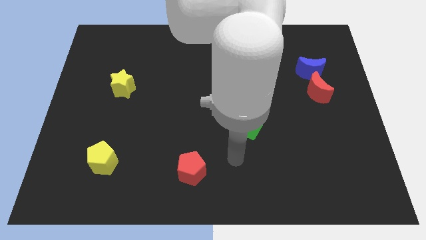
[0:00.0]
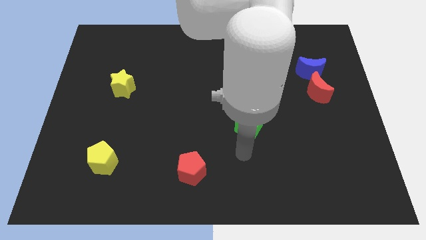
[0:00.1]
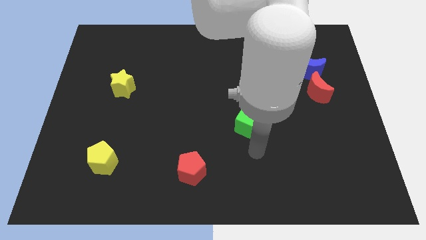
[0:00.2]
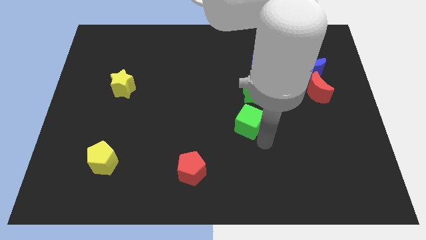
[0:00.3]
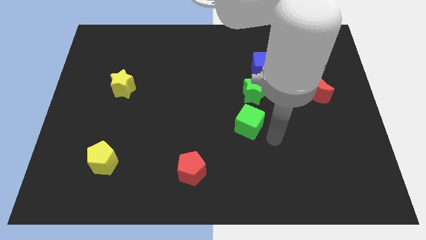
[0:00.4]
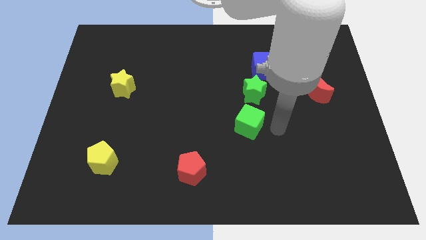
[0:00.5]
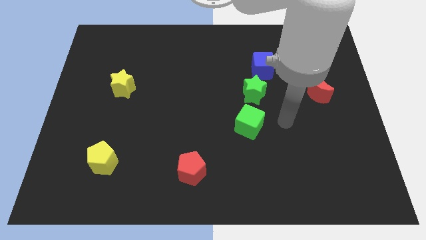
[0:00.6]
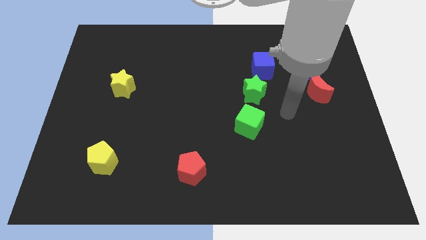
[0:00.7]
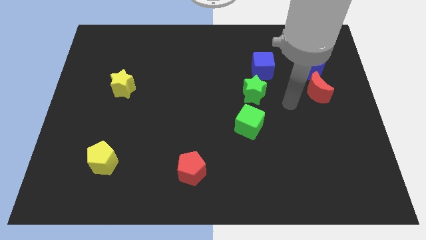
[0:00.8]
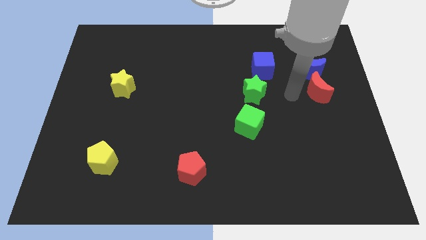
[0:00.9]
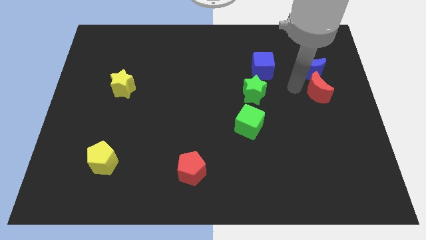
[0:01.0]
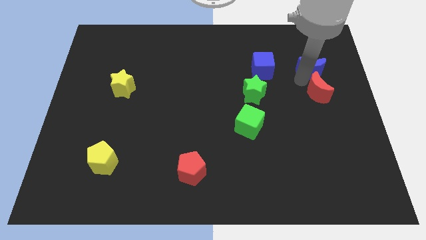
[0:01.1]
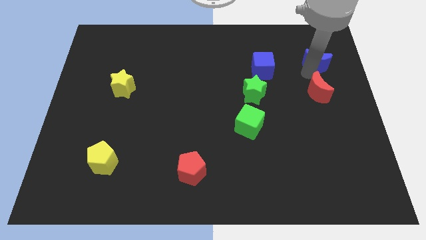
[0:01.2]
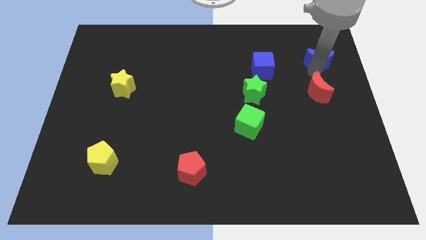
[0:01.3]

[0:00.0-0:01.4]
separate the red moon from the blue moon

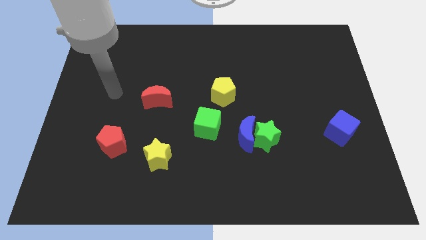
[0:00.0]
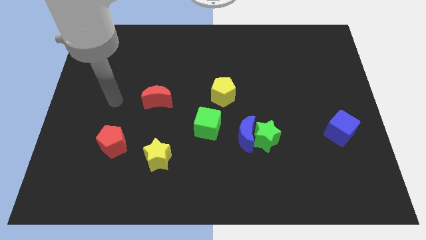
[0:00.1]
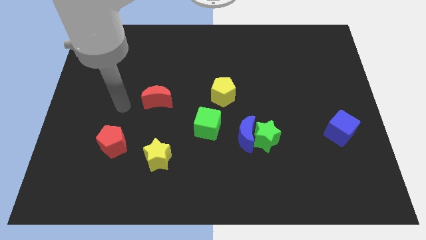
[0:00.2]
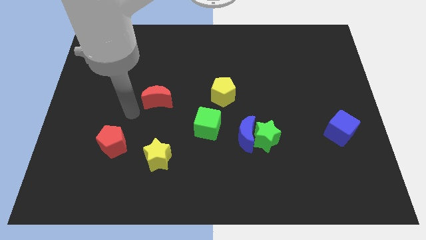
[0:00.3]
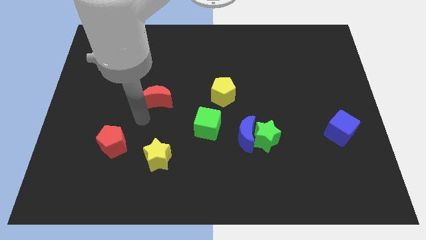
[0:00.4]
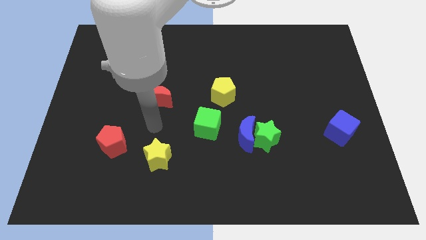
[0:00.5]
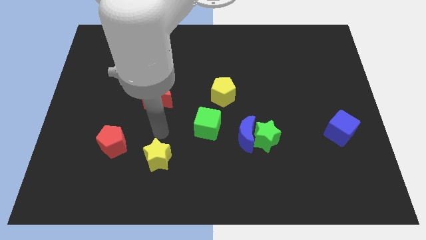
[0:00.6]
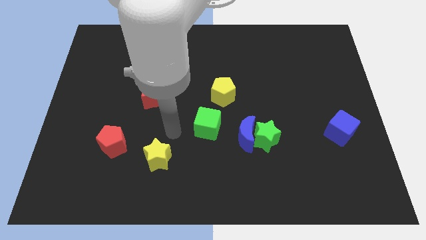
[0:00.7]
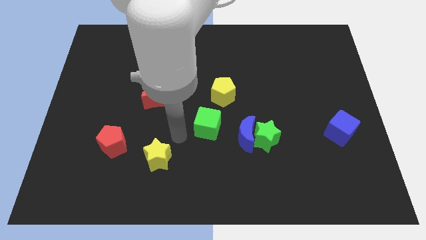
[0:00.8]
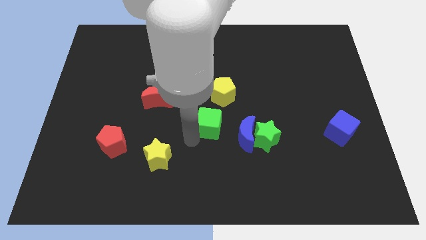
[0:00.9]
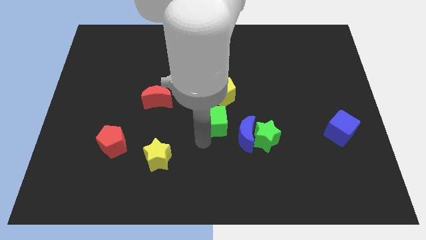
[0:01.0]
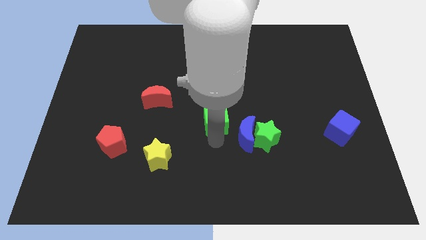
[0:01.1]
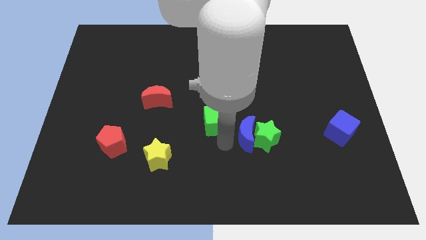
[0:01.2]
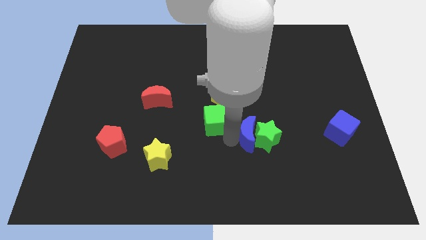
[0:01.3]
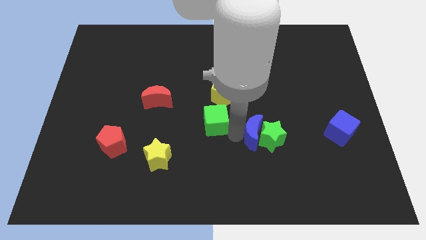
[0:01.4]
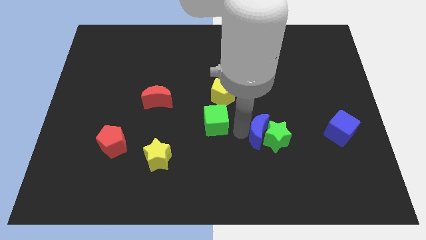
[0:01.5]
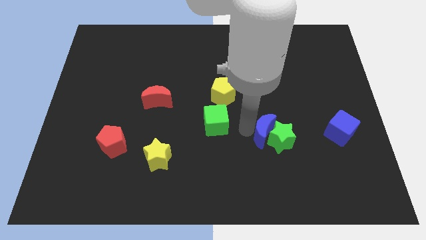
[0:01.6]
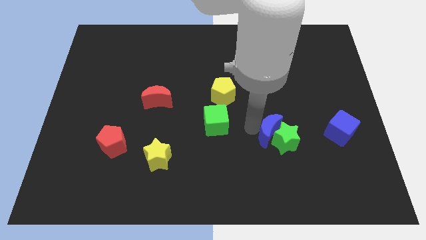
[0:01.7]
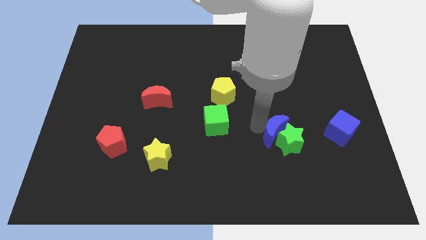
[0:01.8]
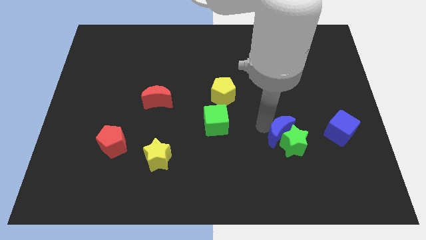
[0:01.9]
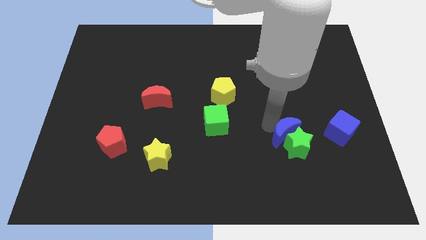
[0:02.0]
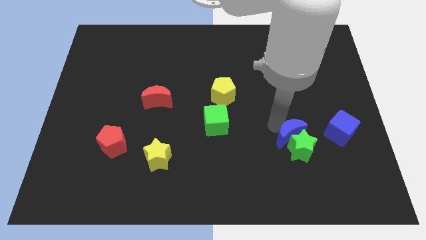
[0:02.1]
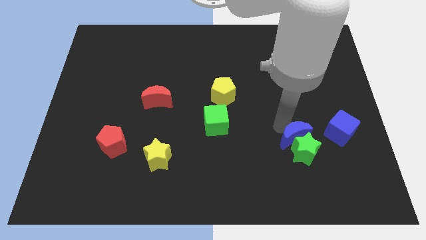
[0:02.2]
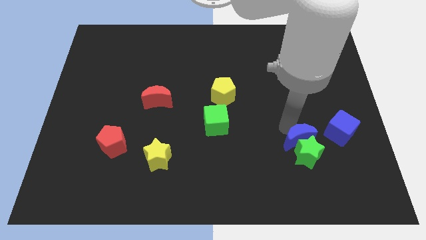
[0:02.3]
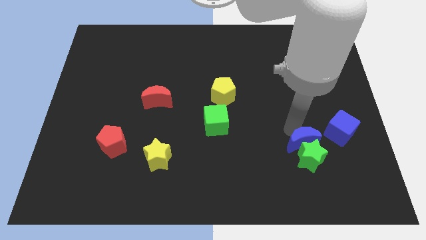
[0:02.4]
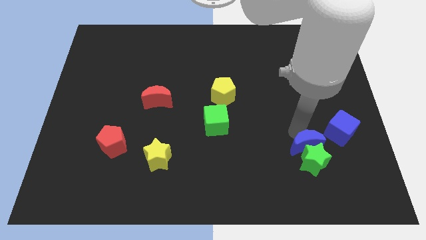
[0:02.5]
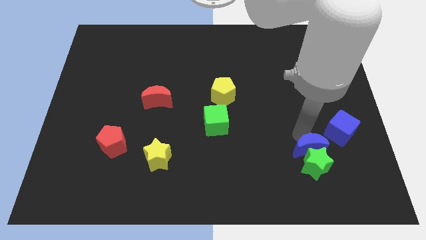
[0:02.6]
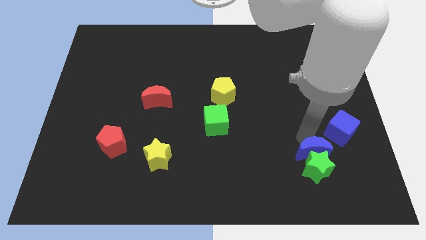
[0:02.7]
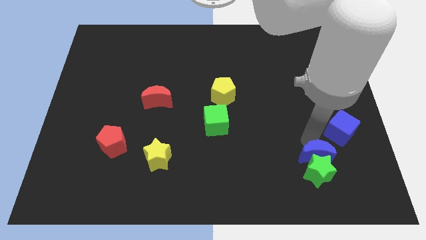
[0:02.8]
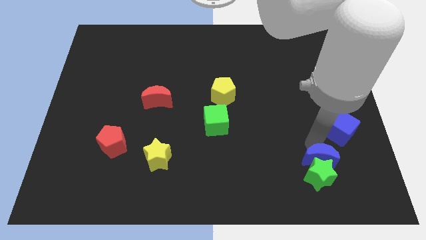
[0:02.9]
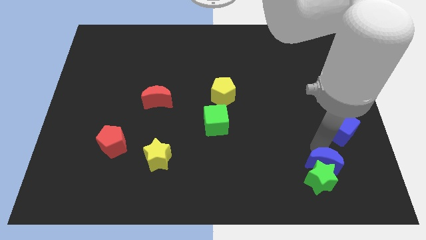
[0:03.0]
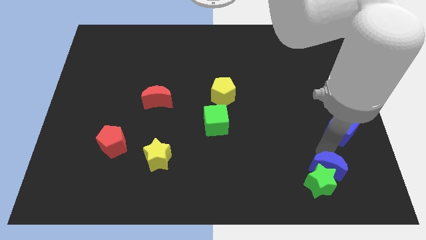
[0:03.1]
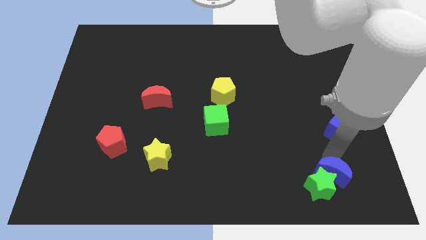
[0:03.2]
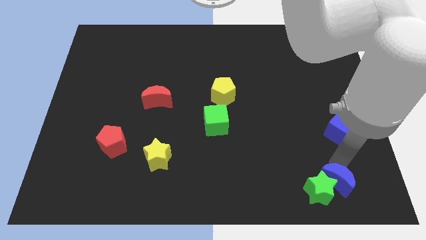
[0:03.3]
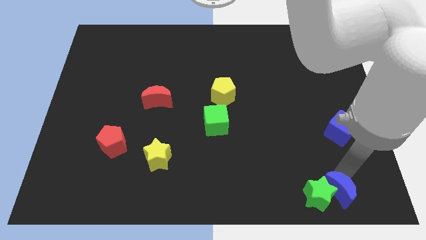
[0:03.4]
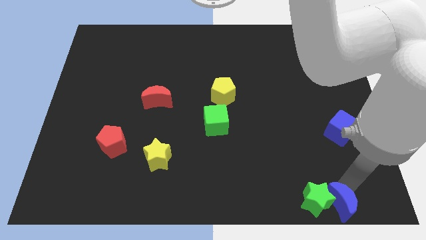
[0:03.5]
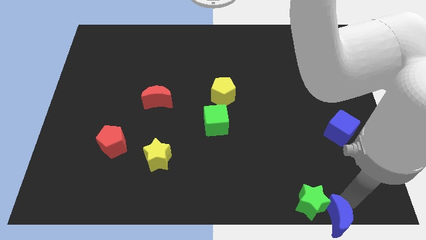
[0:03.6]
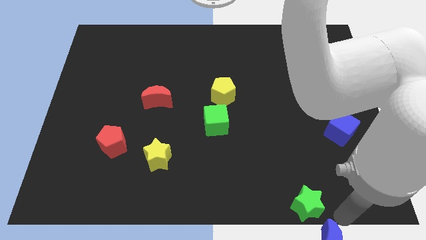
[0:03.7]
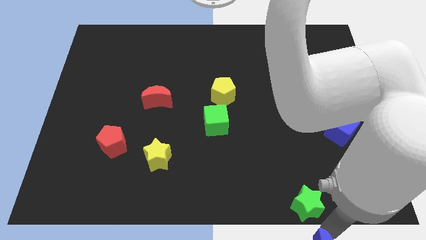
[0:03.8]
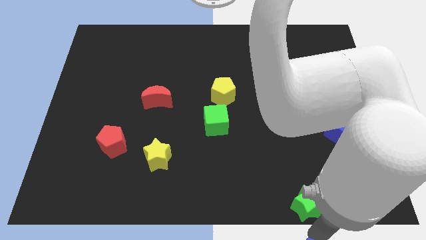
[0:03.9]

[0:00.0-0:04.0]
separate the green star from the blue moon

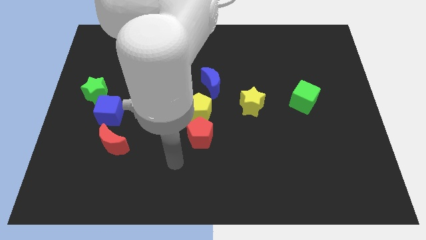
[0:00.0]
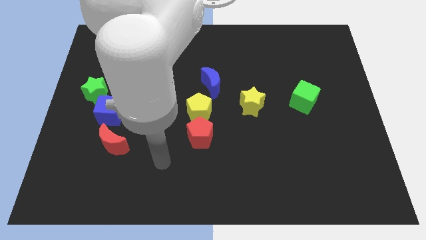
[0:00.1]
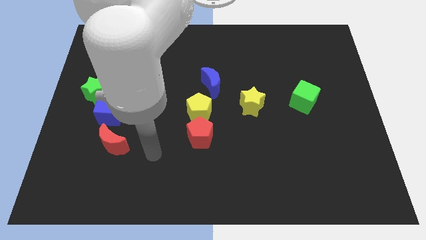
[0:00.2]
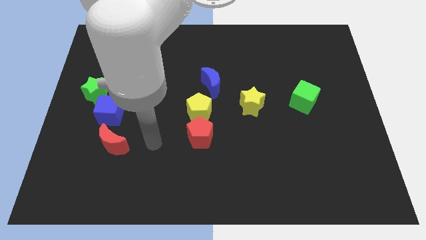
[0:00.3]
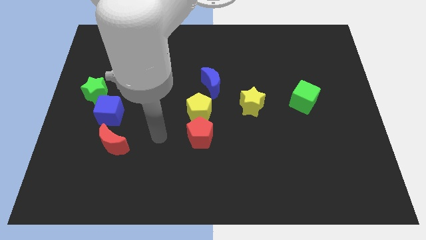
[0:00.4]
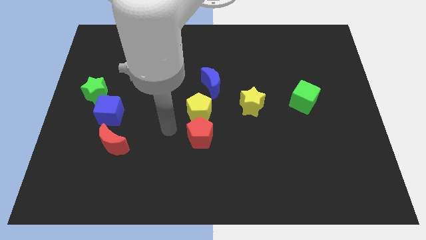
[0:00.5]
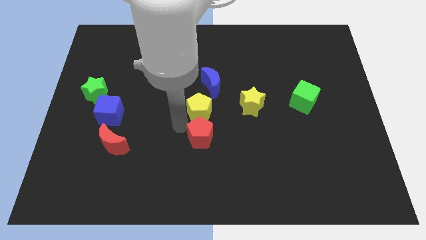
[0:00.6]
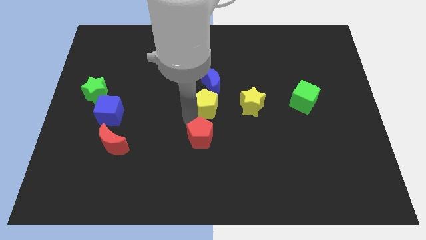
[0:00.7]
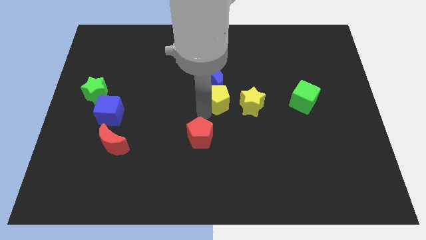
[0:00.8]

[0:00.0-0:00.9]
move the red pentagon away from the yellow pentagon

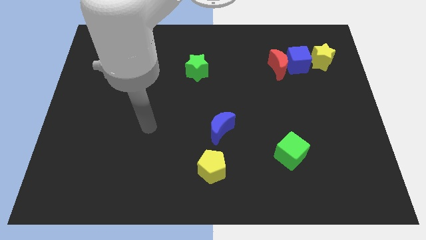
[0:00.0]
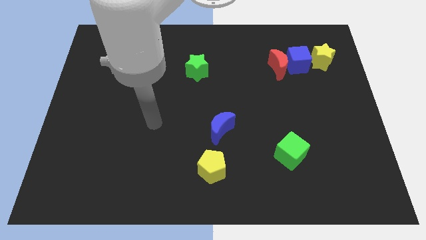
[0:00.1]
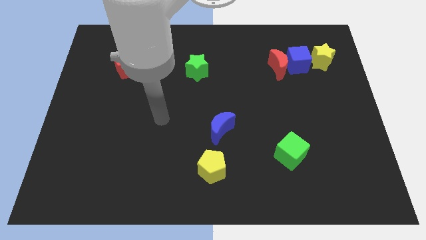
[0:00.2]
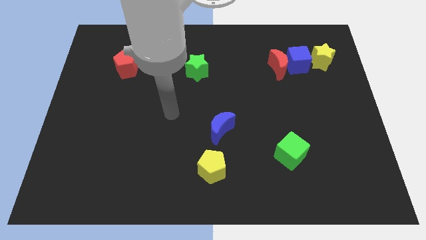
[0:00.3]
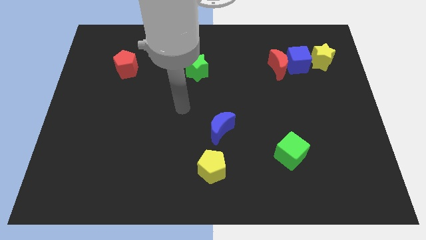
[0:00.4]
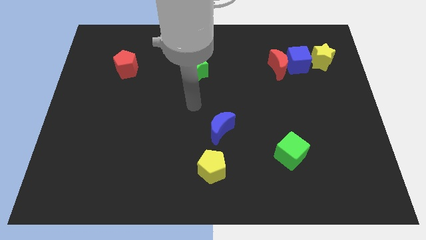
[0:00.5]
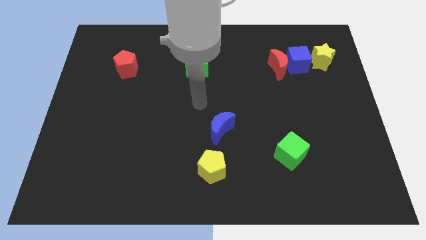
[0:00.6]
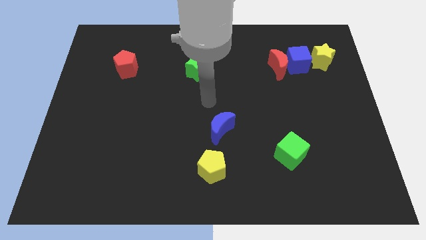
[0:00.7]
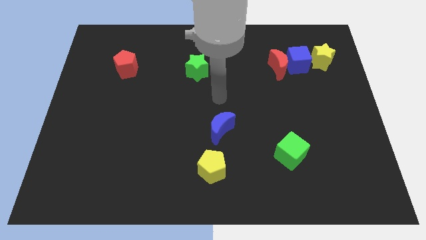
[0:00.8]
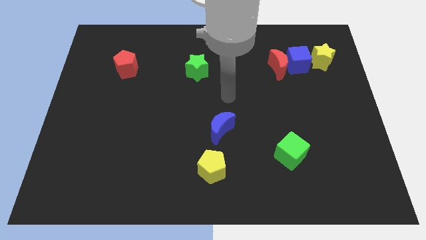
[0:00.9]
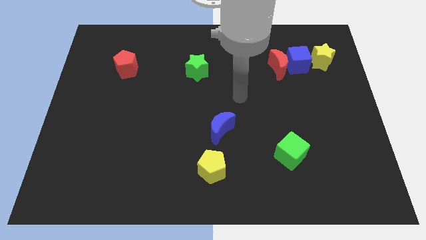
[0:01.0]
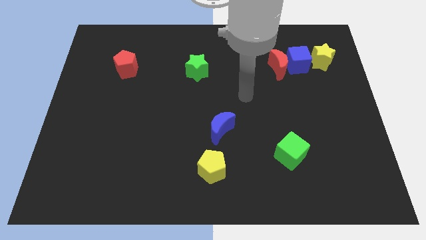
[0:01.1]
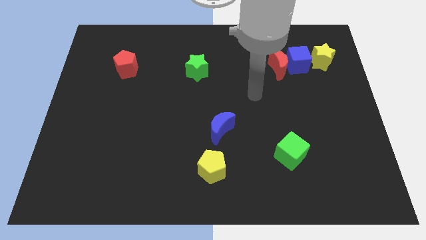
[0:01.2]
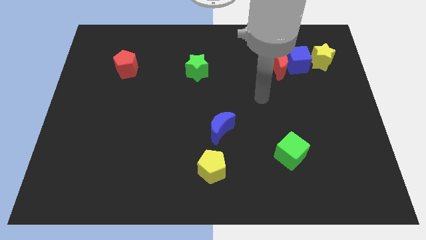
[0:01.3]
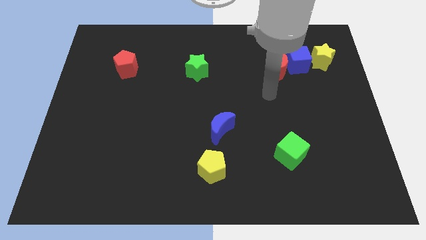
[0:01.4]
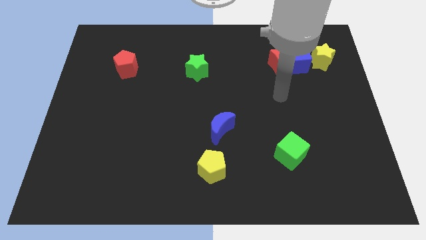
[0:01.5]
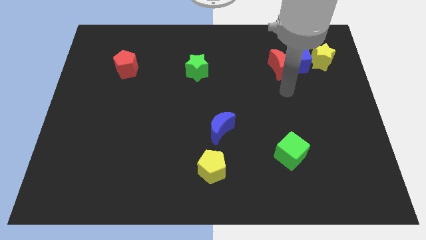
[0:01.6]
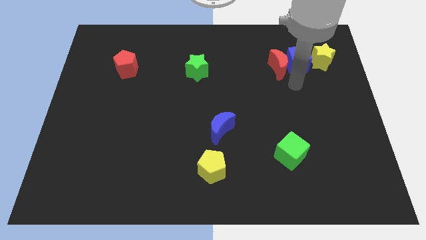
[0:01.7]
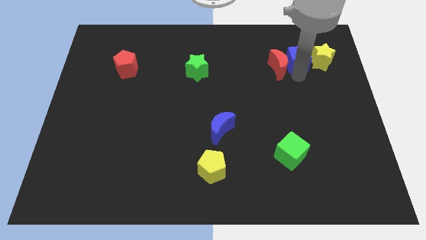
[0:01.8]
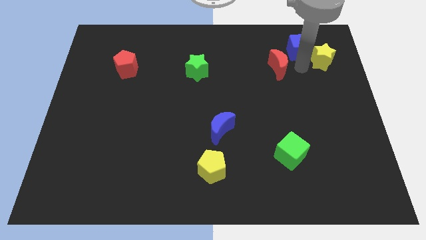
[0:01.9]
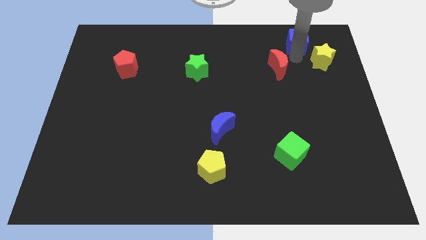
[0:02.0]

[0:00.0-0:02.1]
separate the red moon from the blue cube

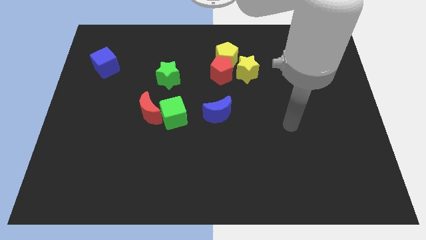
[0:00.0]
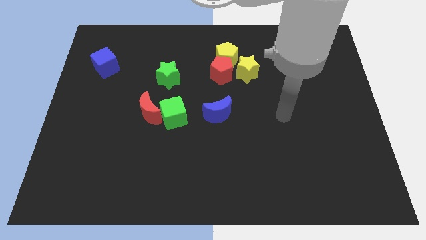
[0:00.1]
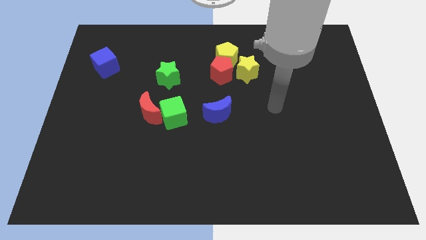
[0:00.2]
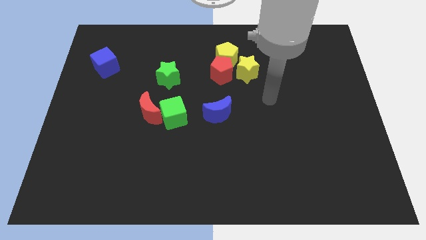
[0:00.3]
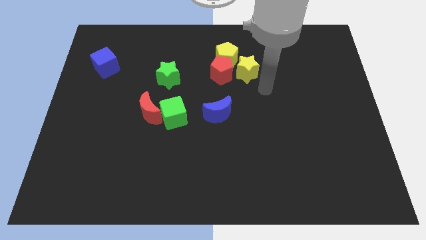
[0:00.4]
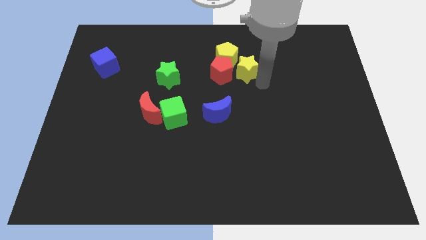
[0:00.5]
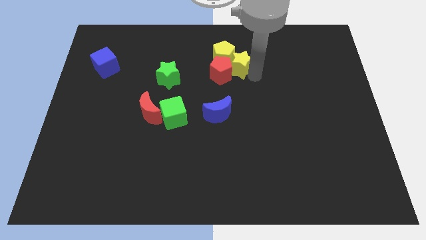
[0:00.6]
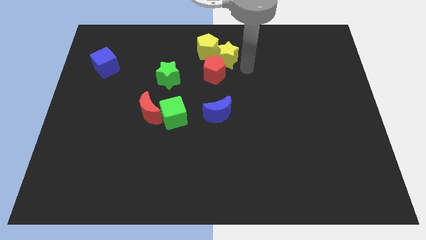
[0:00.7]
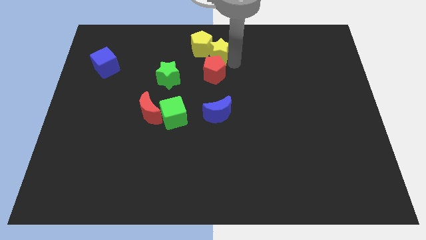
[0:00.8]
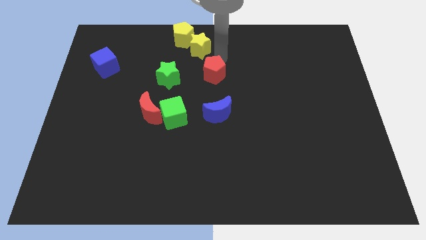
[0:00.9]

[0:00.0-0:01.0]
separate the red pentagon from the yellow pentagon and yellow star
